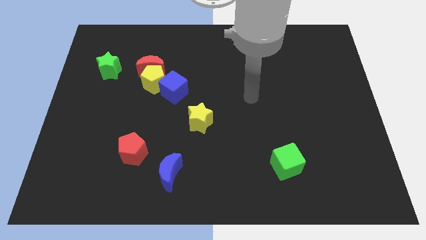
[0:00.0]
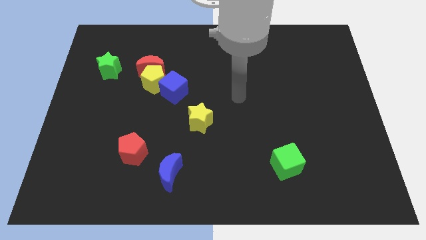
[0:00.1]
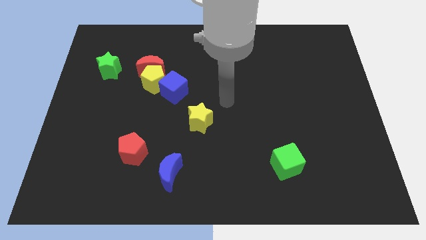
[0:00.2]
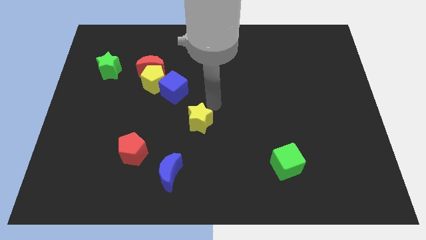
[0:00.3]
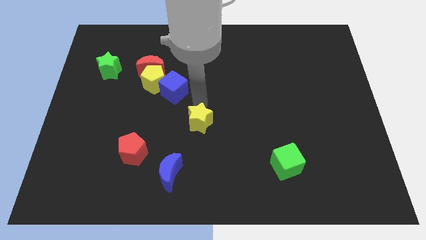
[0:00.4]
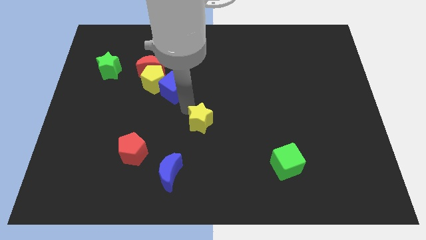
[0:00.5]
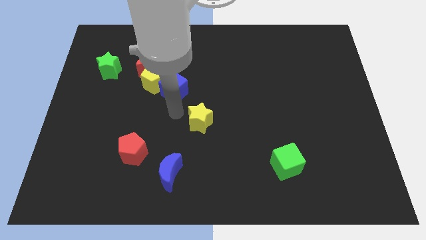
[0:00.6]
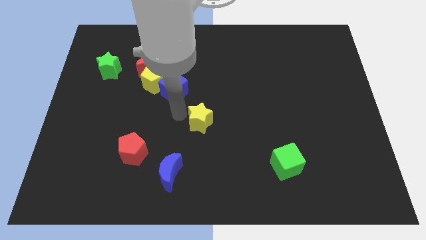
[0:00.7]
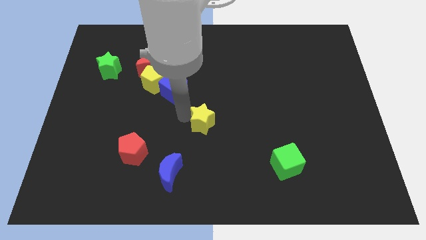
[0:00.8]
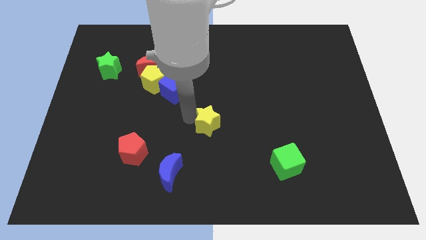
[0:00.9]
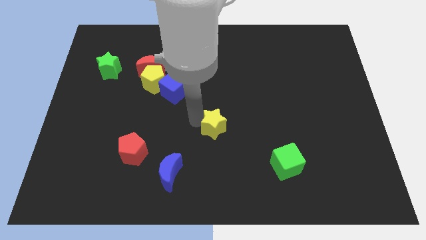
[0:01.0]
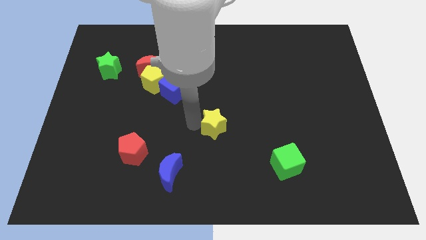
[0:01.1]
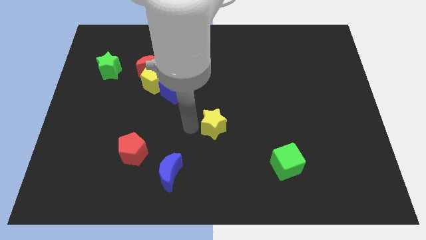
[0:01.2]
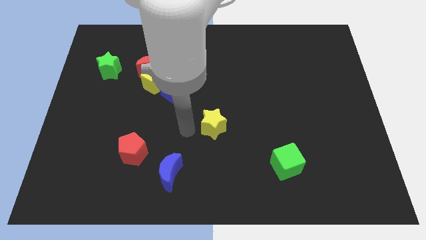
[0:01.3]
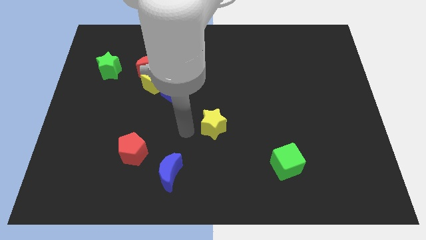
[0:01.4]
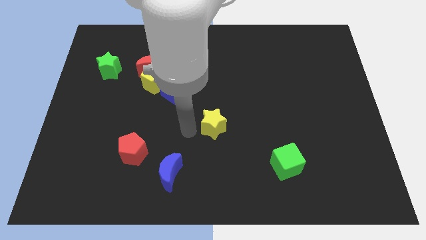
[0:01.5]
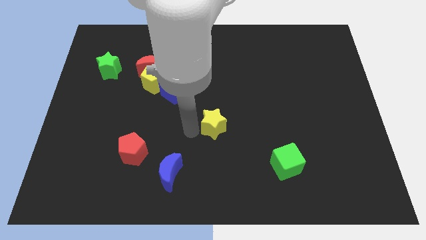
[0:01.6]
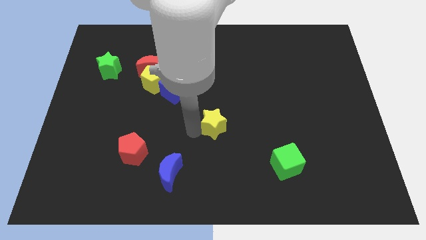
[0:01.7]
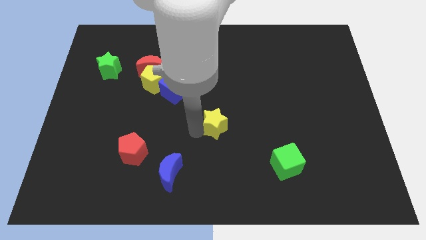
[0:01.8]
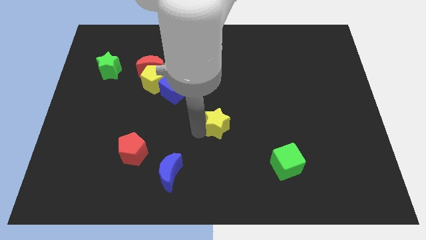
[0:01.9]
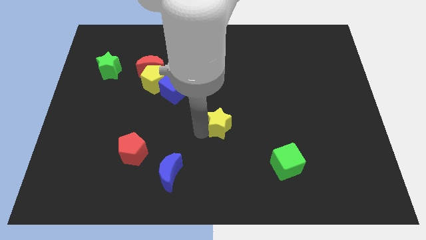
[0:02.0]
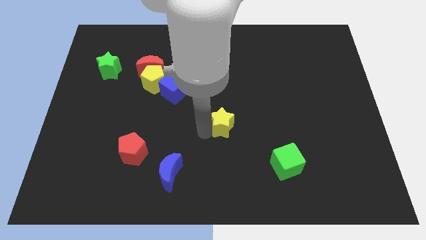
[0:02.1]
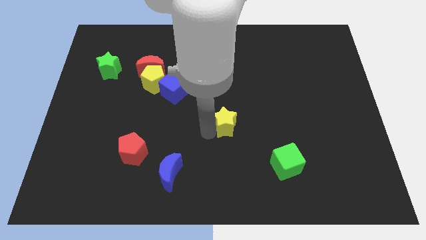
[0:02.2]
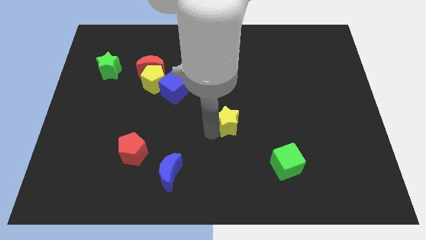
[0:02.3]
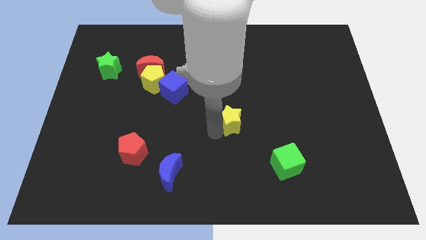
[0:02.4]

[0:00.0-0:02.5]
slightly slide the yellow star right

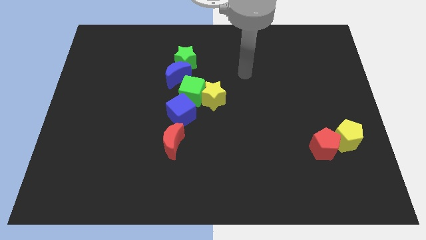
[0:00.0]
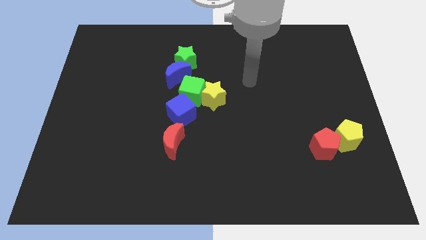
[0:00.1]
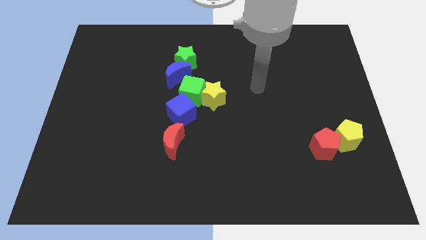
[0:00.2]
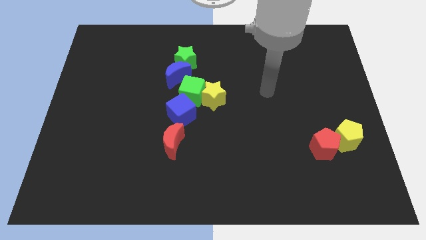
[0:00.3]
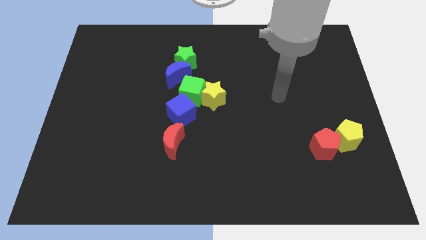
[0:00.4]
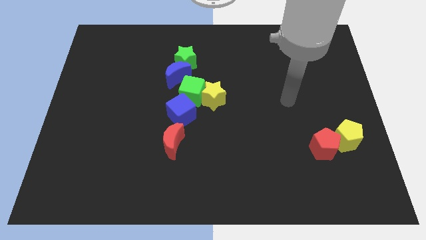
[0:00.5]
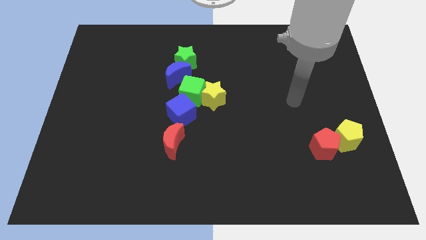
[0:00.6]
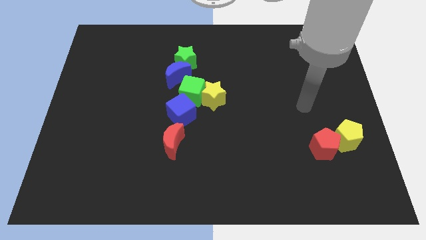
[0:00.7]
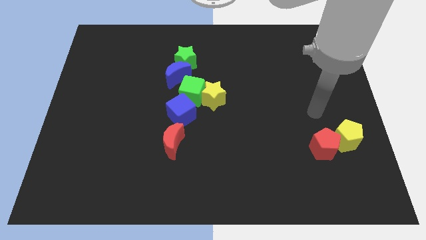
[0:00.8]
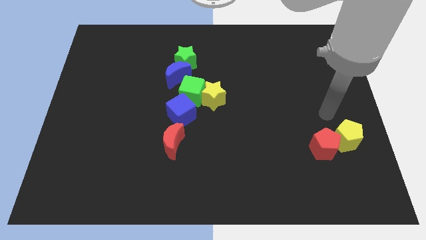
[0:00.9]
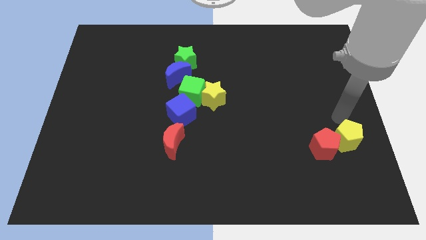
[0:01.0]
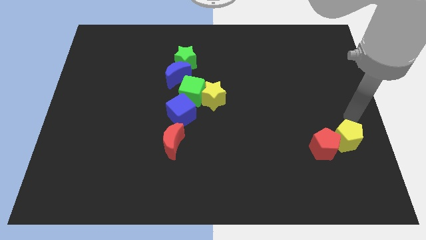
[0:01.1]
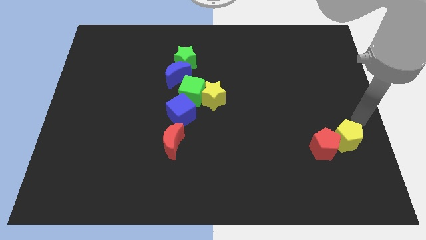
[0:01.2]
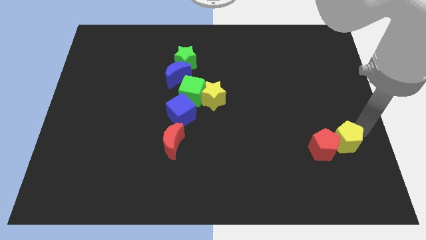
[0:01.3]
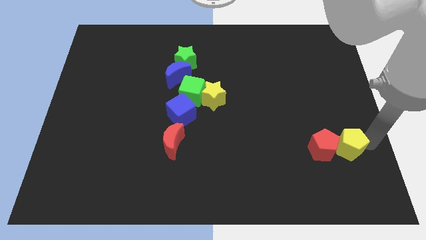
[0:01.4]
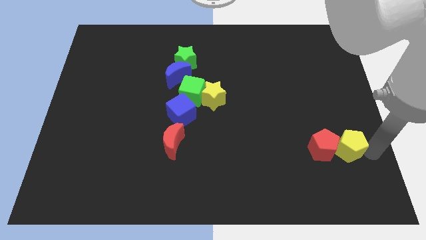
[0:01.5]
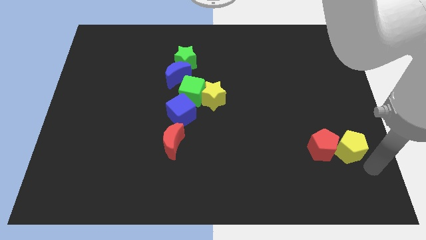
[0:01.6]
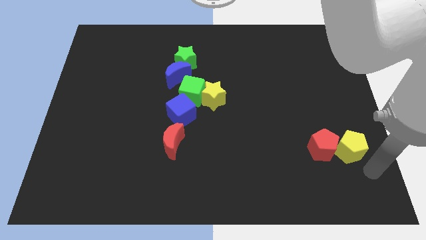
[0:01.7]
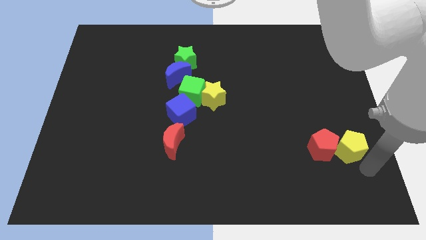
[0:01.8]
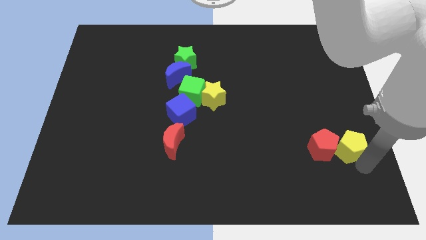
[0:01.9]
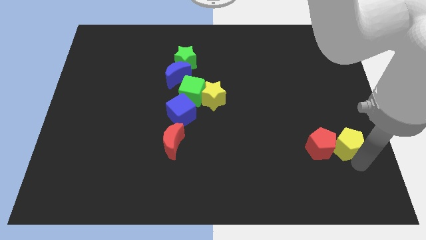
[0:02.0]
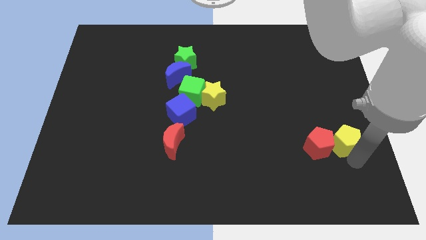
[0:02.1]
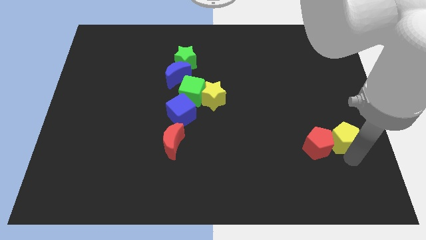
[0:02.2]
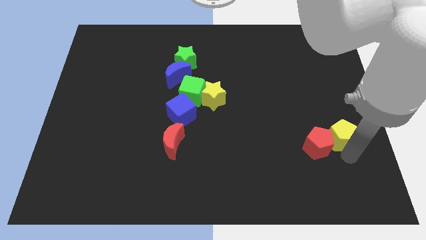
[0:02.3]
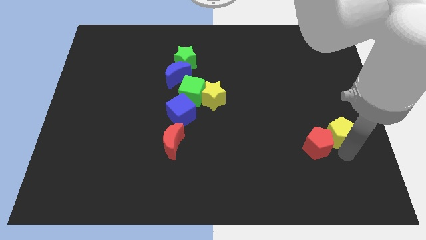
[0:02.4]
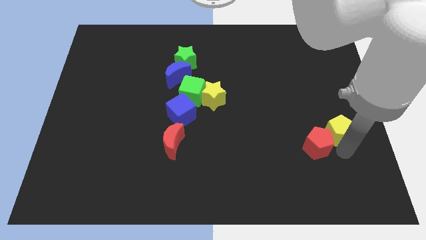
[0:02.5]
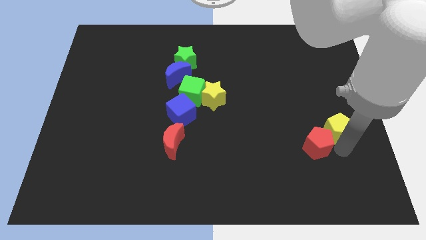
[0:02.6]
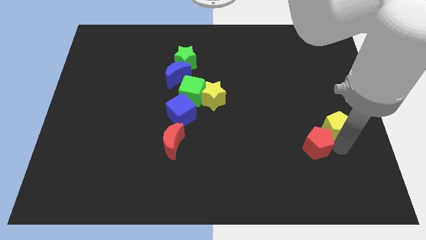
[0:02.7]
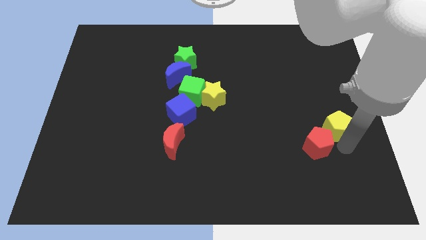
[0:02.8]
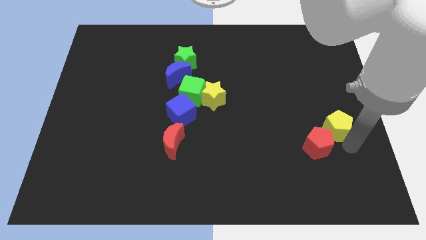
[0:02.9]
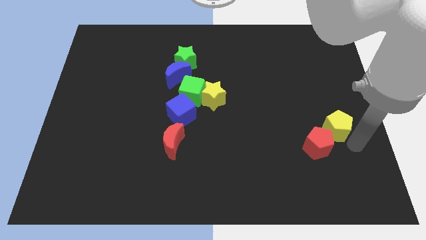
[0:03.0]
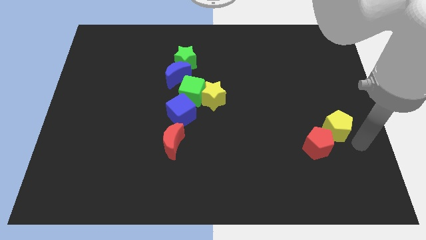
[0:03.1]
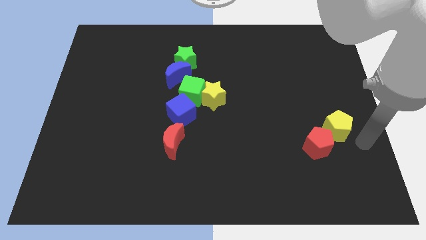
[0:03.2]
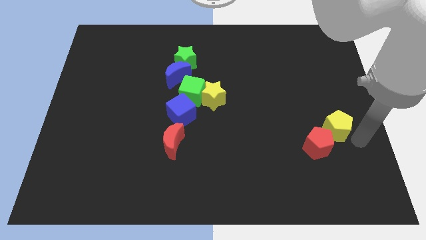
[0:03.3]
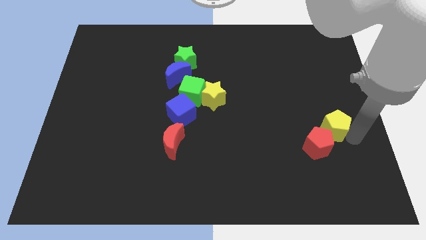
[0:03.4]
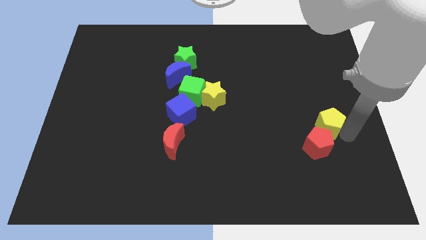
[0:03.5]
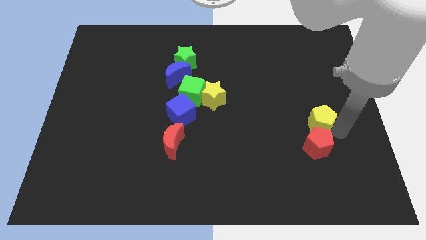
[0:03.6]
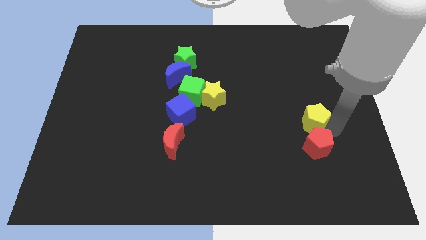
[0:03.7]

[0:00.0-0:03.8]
move the yellow pentagon upwards and left diagonally slightly

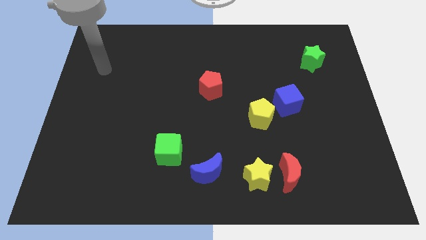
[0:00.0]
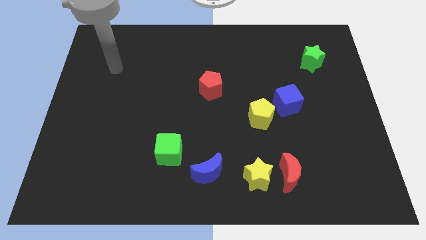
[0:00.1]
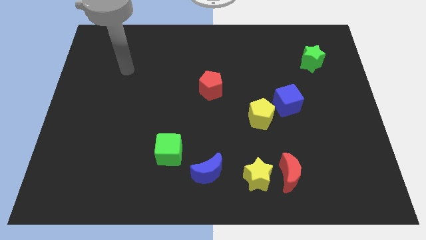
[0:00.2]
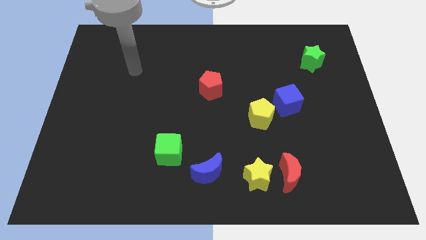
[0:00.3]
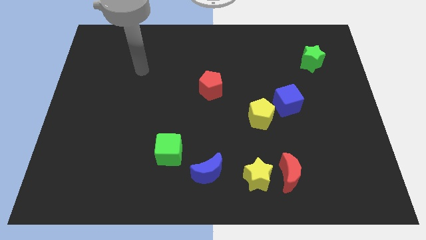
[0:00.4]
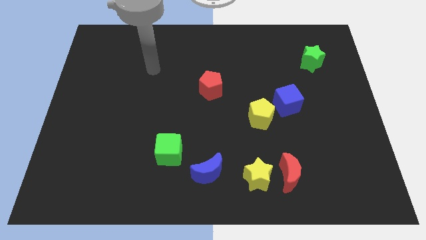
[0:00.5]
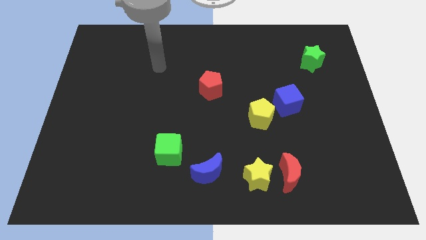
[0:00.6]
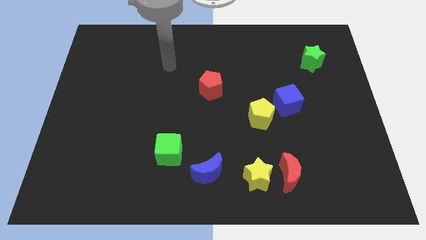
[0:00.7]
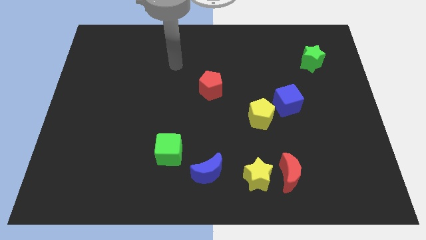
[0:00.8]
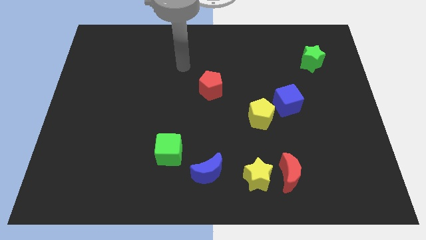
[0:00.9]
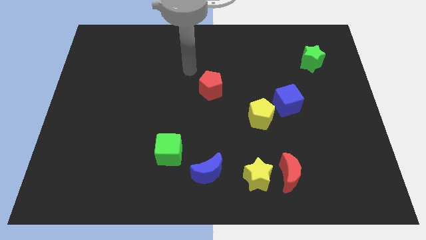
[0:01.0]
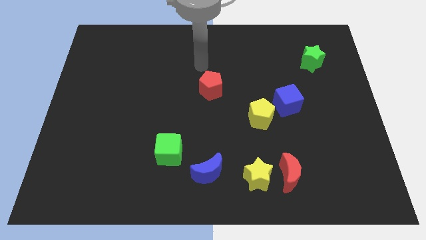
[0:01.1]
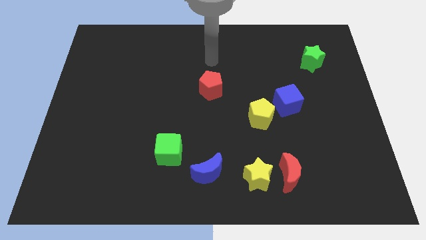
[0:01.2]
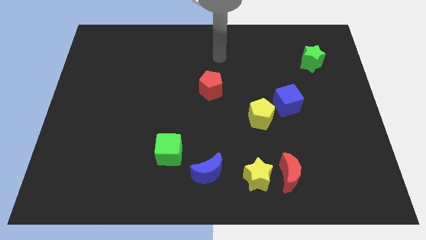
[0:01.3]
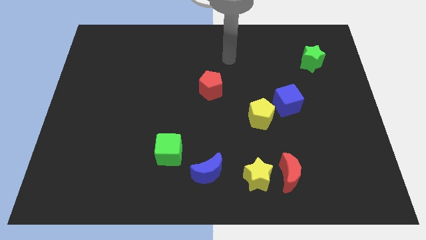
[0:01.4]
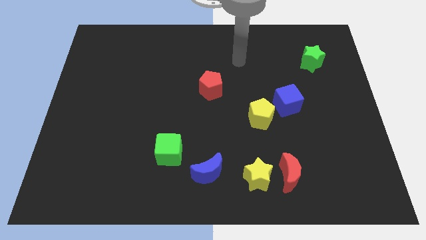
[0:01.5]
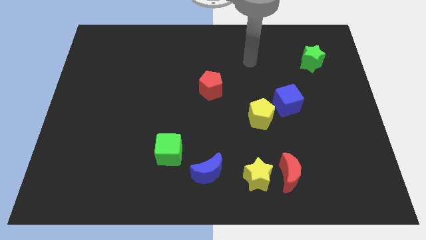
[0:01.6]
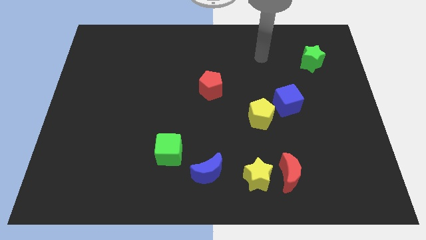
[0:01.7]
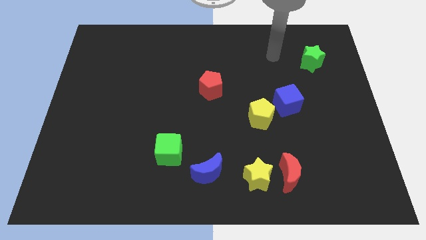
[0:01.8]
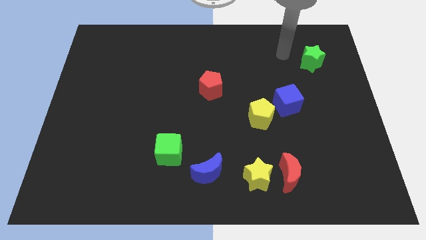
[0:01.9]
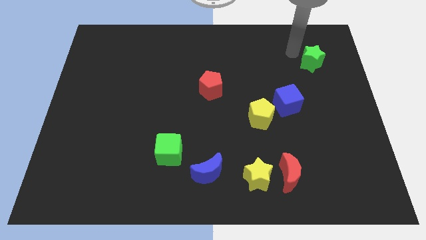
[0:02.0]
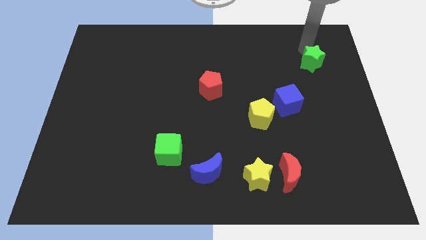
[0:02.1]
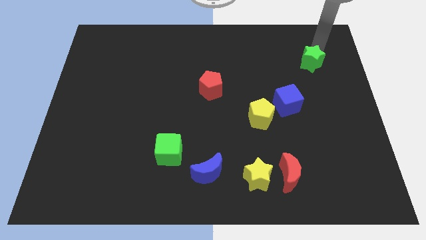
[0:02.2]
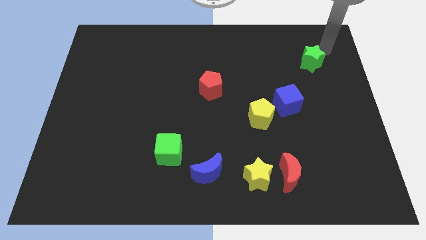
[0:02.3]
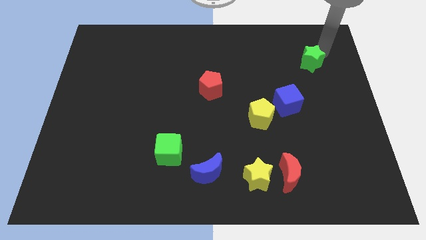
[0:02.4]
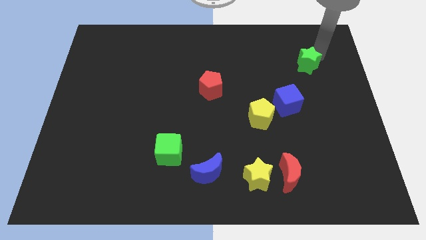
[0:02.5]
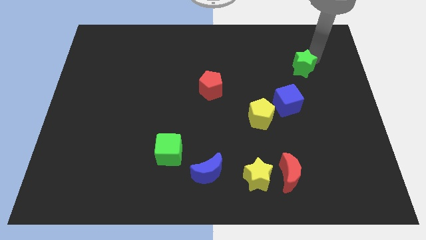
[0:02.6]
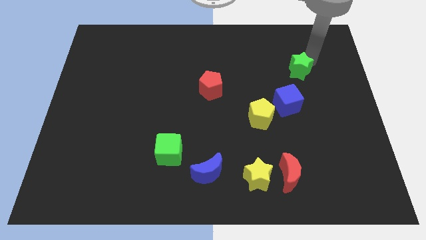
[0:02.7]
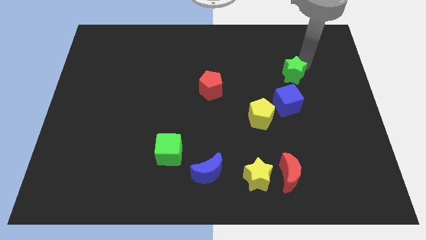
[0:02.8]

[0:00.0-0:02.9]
move the green star diagonally down and left a little
